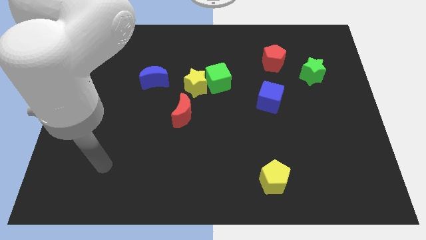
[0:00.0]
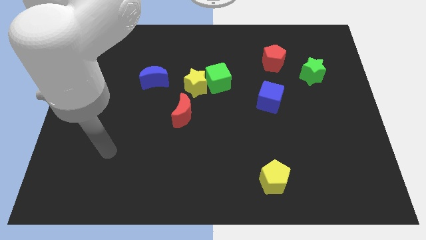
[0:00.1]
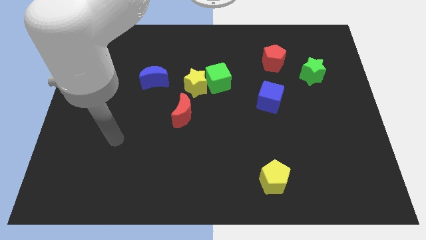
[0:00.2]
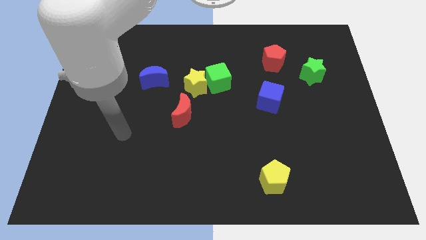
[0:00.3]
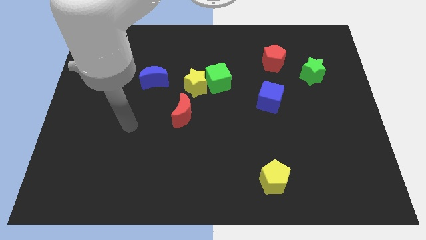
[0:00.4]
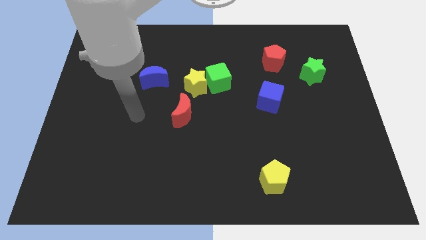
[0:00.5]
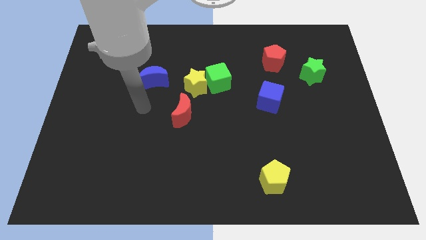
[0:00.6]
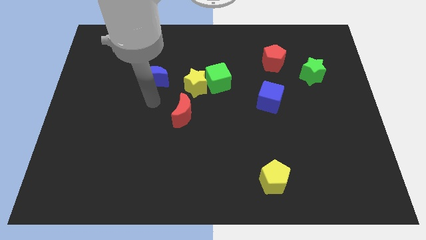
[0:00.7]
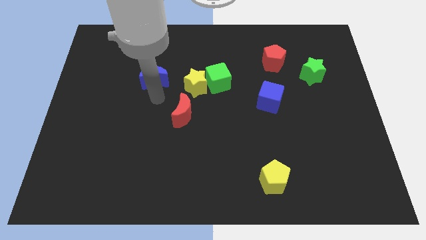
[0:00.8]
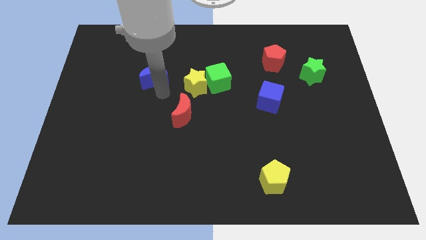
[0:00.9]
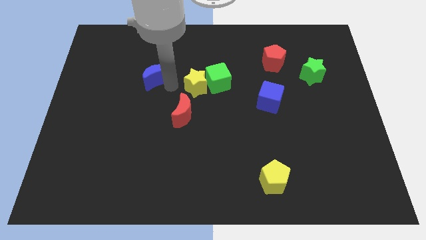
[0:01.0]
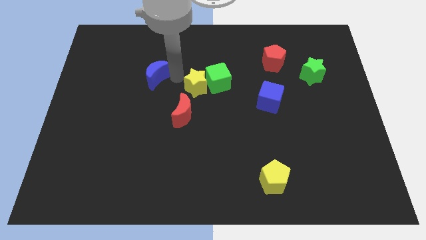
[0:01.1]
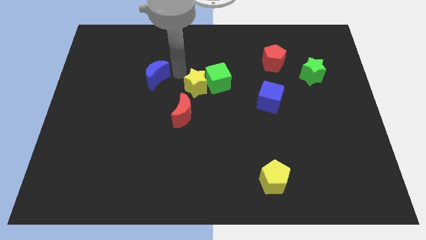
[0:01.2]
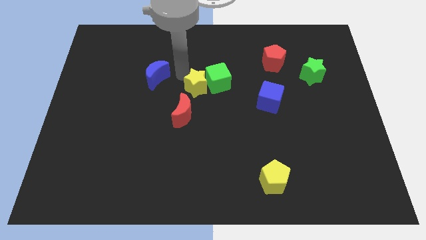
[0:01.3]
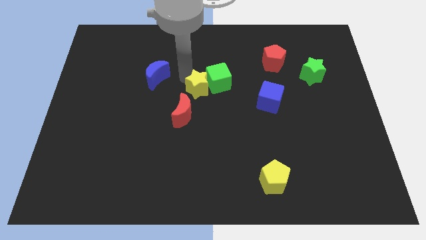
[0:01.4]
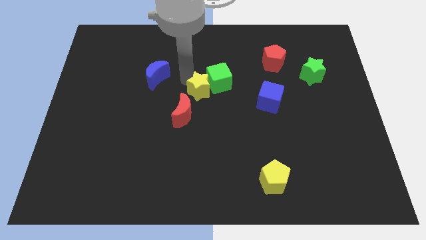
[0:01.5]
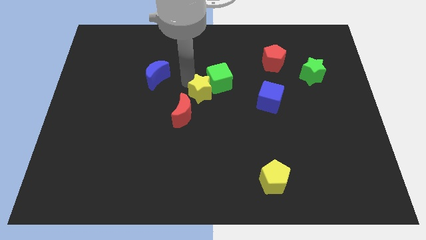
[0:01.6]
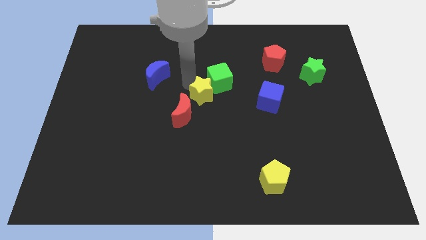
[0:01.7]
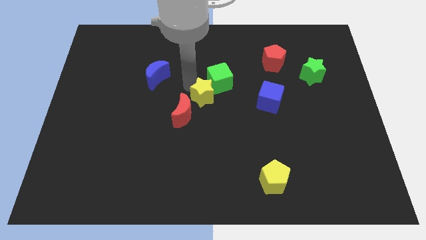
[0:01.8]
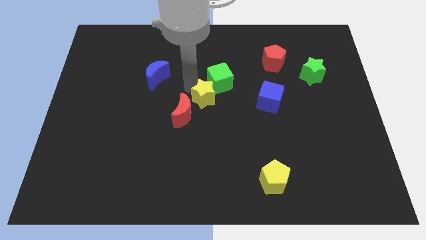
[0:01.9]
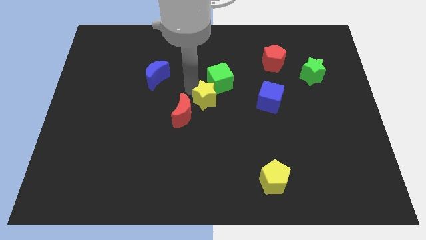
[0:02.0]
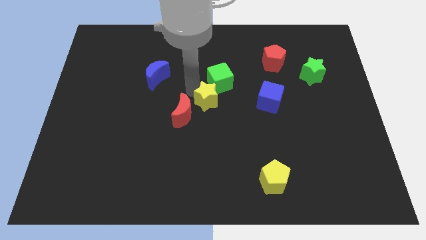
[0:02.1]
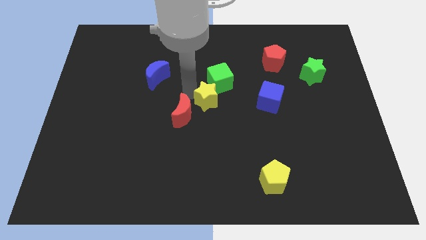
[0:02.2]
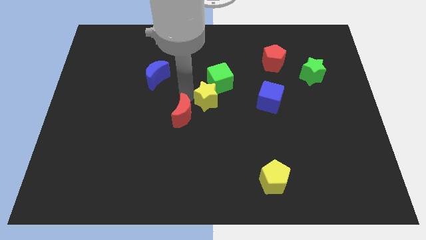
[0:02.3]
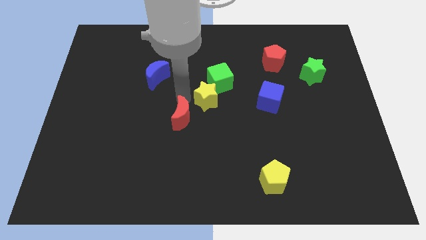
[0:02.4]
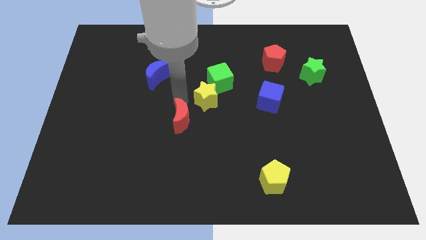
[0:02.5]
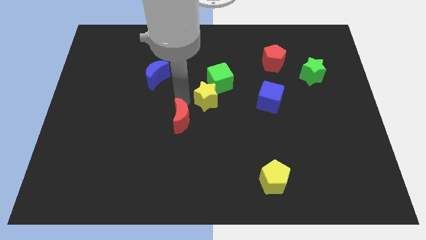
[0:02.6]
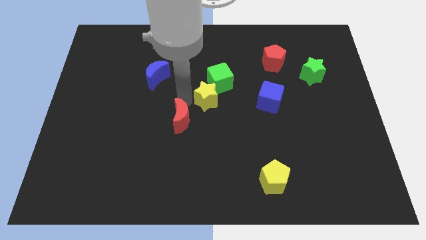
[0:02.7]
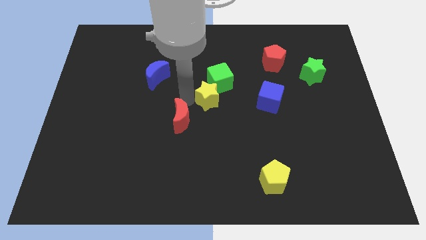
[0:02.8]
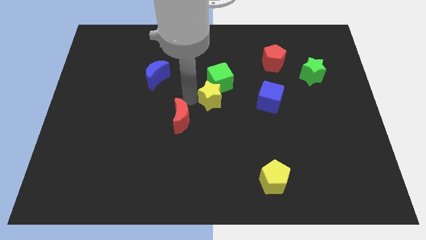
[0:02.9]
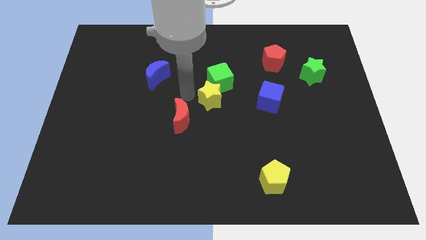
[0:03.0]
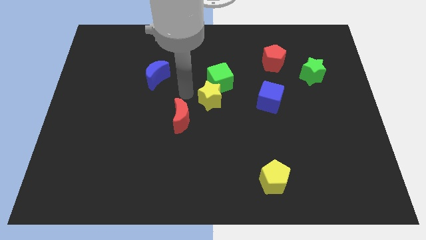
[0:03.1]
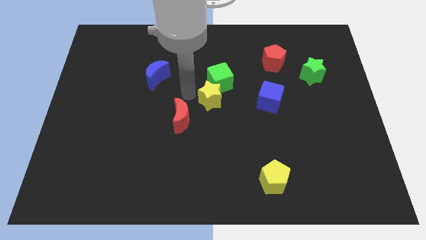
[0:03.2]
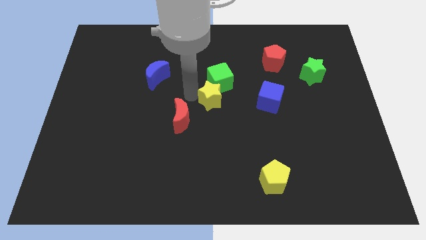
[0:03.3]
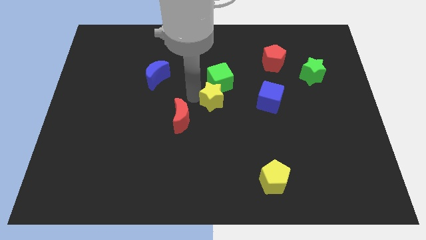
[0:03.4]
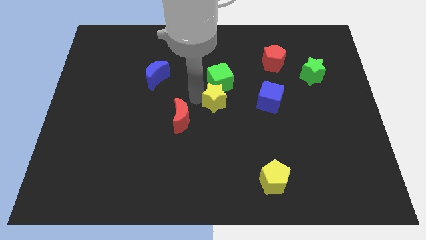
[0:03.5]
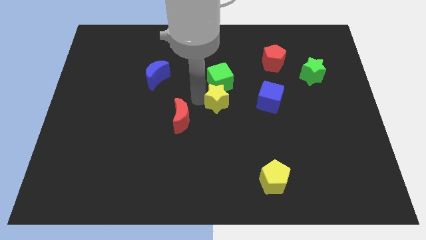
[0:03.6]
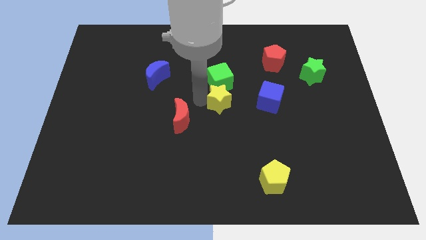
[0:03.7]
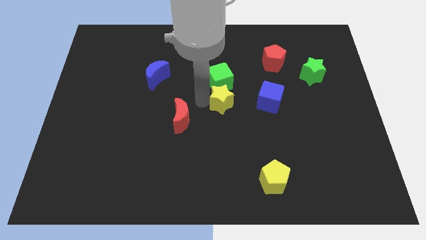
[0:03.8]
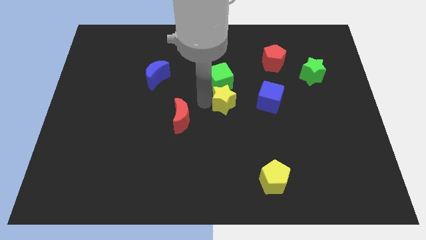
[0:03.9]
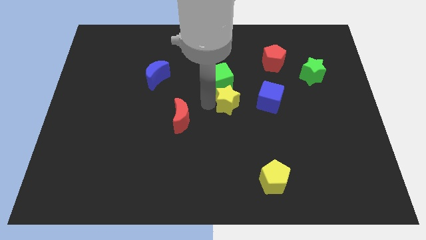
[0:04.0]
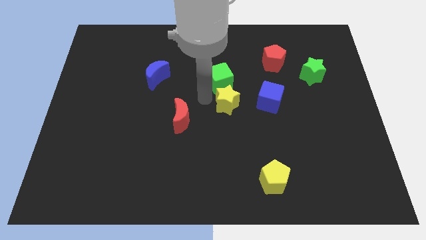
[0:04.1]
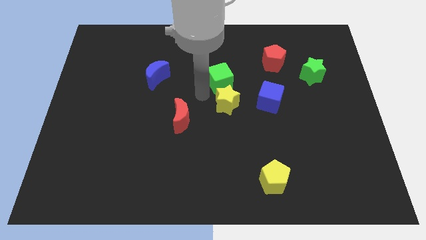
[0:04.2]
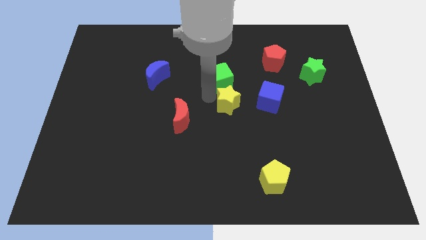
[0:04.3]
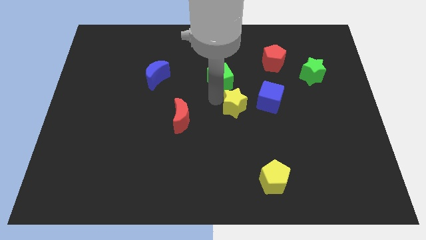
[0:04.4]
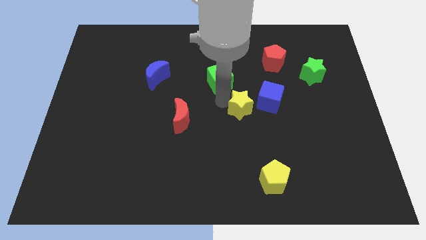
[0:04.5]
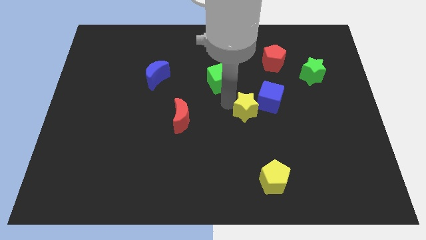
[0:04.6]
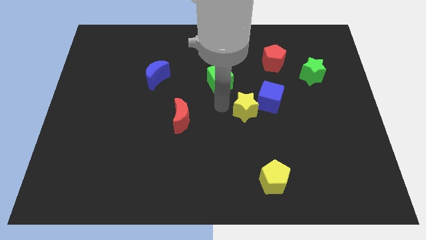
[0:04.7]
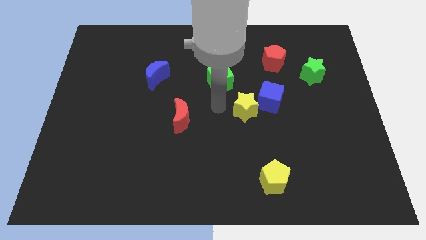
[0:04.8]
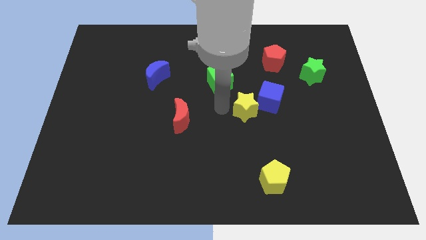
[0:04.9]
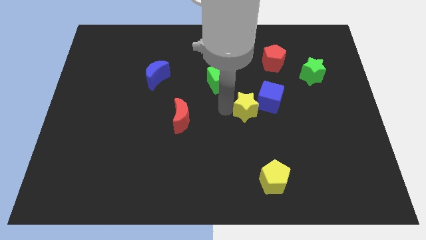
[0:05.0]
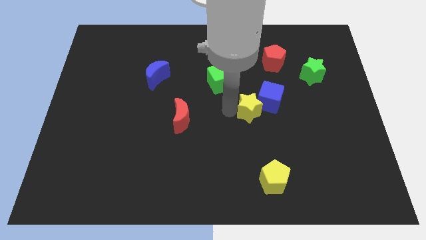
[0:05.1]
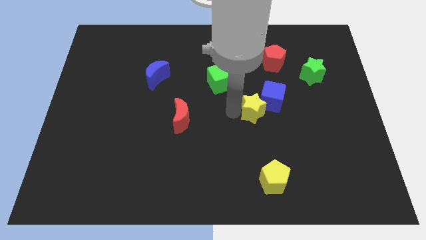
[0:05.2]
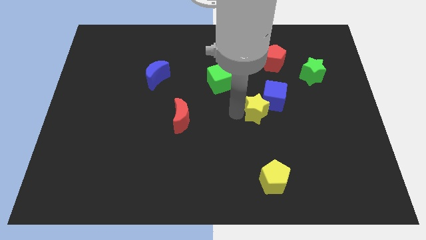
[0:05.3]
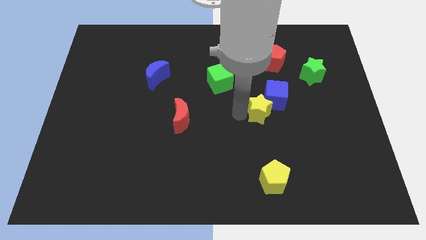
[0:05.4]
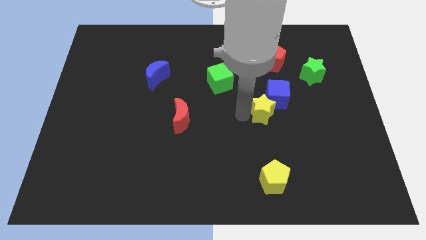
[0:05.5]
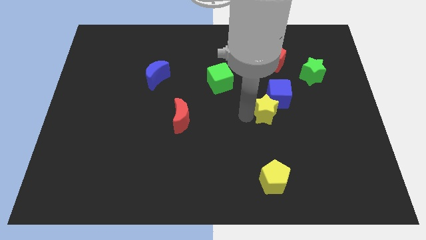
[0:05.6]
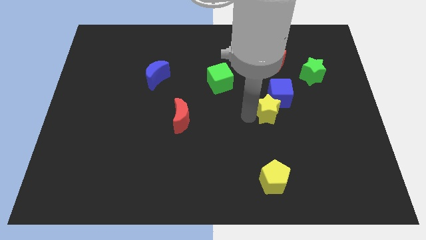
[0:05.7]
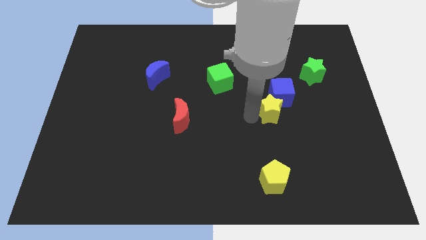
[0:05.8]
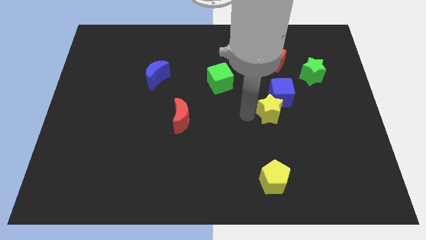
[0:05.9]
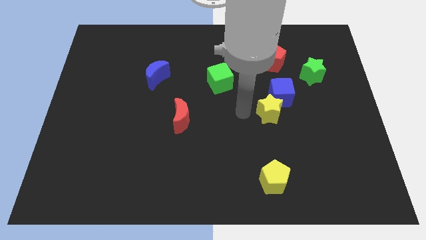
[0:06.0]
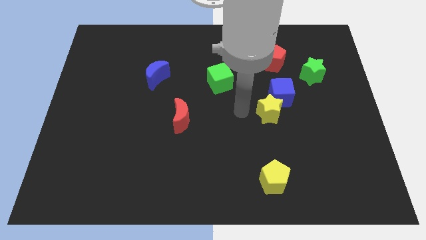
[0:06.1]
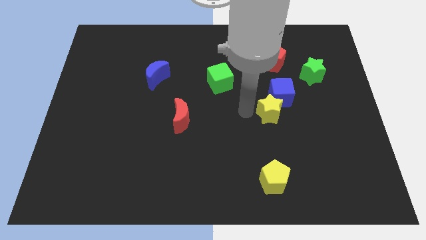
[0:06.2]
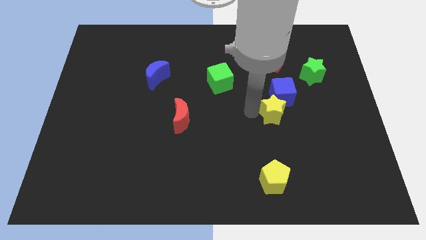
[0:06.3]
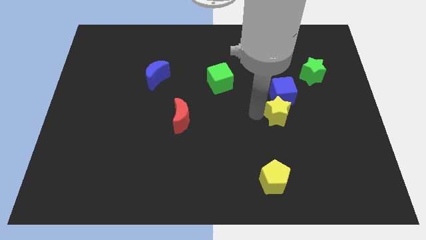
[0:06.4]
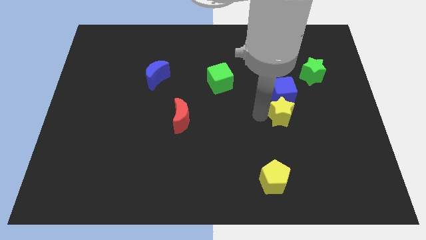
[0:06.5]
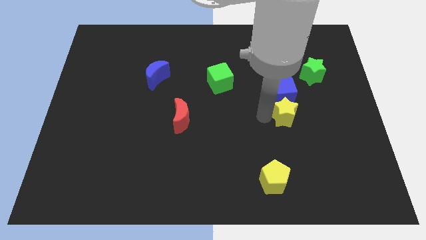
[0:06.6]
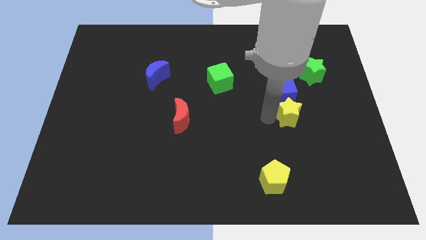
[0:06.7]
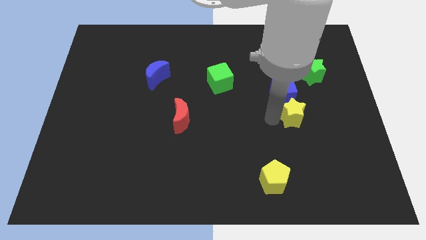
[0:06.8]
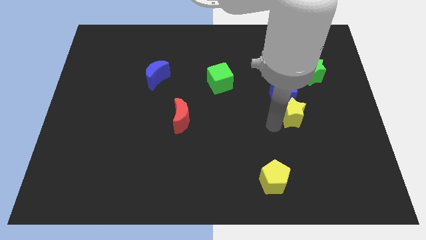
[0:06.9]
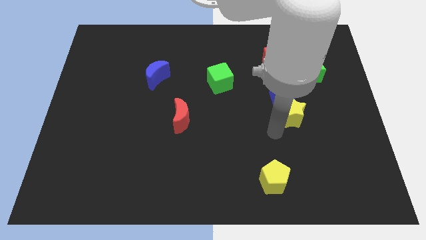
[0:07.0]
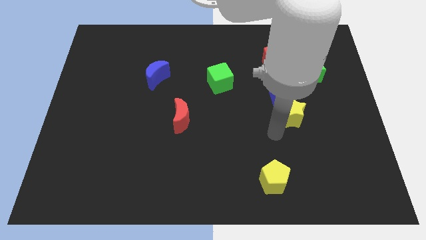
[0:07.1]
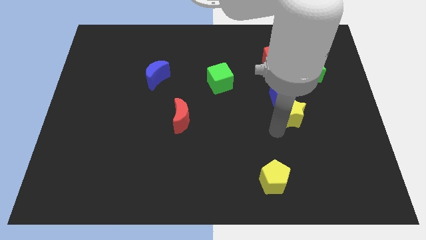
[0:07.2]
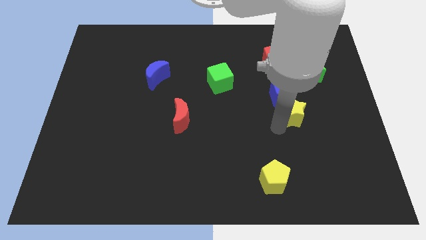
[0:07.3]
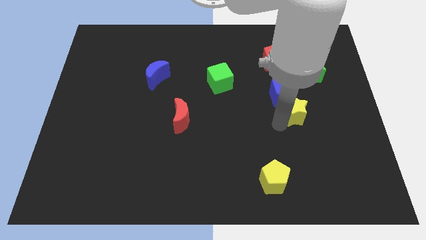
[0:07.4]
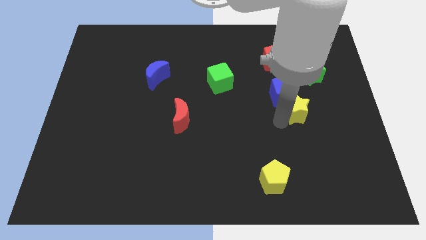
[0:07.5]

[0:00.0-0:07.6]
push the yellow star right

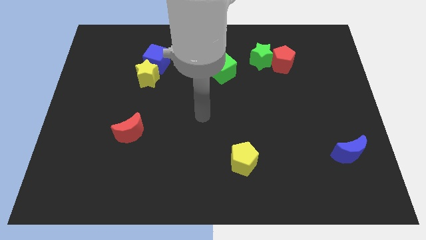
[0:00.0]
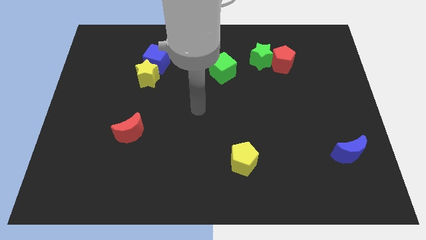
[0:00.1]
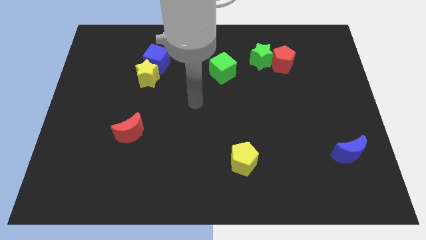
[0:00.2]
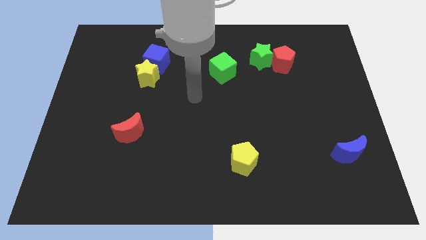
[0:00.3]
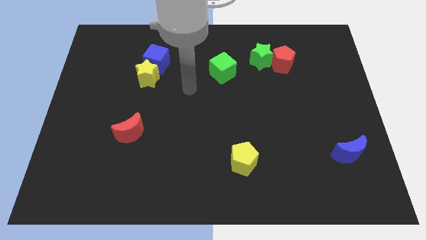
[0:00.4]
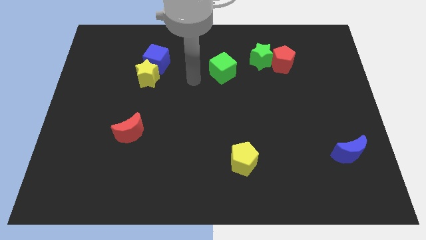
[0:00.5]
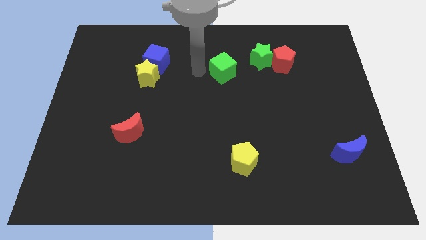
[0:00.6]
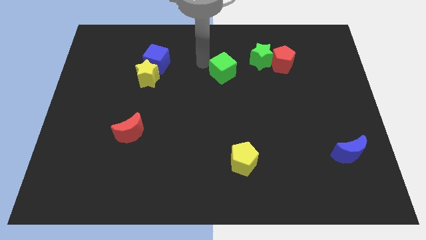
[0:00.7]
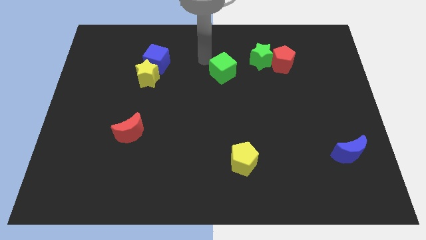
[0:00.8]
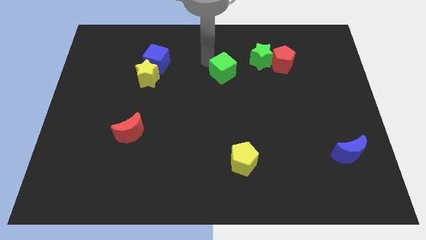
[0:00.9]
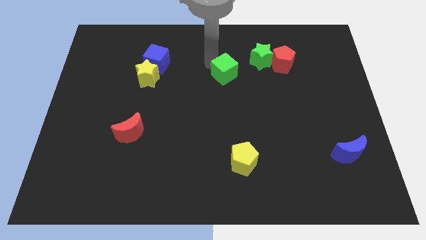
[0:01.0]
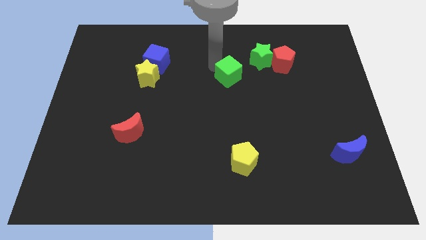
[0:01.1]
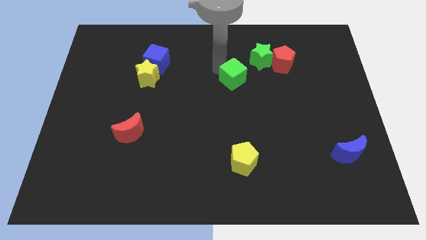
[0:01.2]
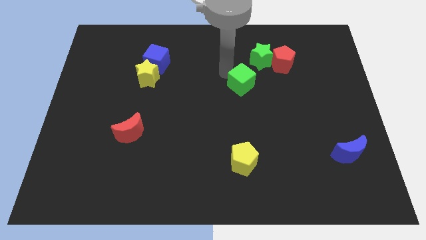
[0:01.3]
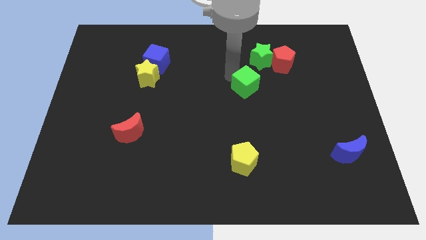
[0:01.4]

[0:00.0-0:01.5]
push the green cube diagonally down and to the right a little bit
